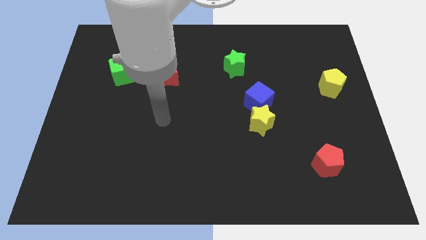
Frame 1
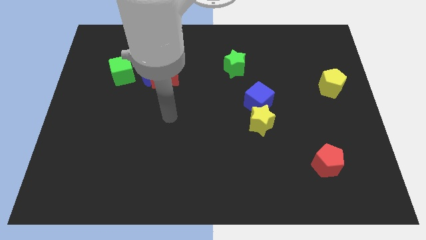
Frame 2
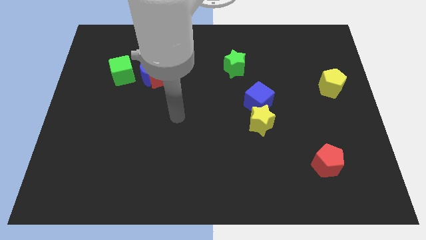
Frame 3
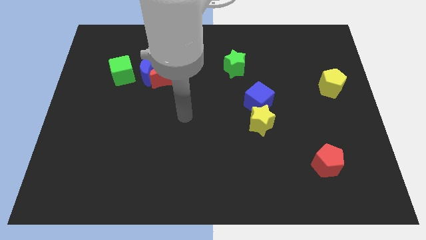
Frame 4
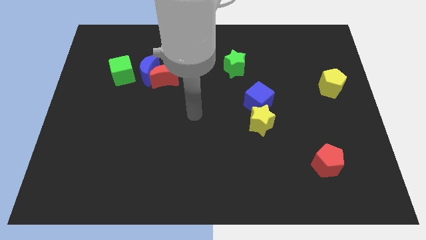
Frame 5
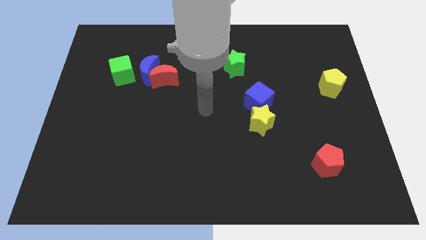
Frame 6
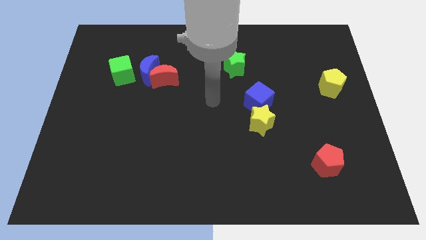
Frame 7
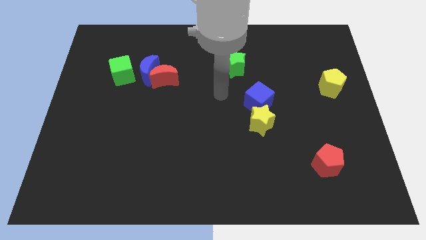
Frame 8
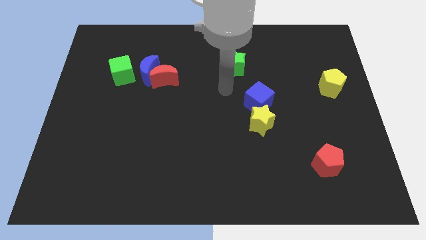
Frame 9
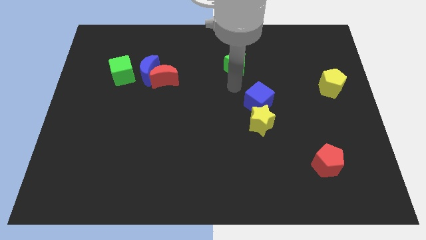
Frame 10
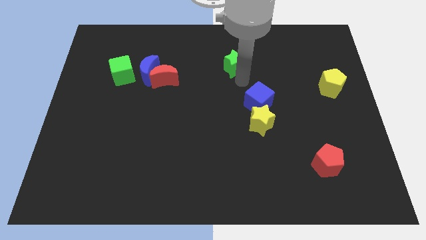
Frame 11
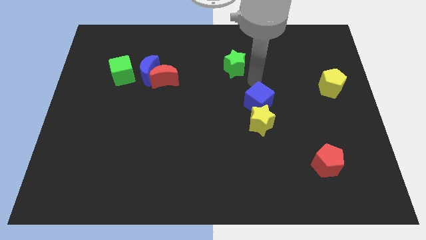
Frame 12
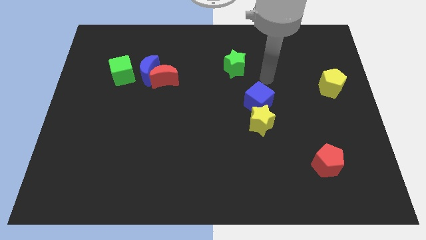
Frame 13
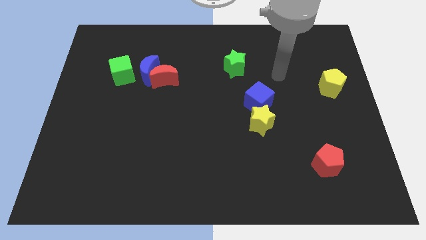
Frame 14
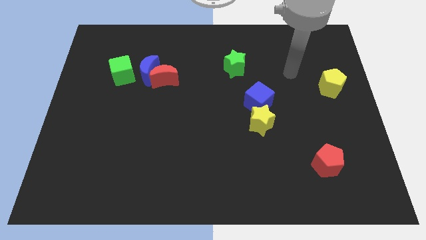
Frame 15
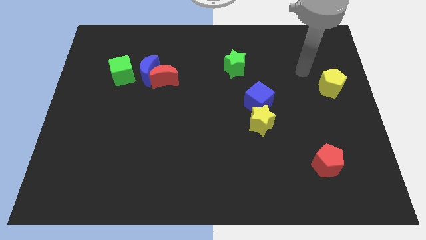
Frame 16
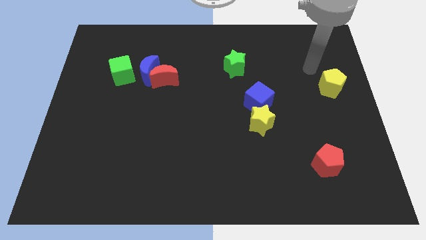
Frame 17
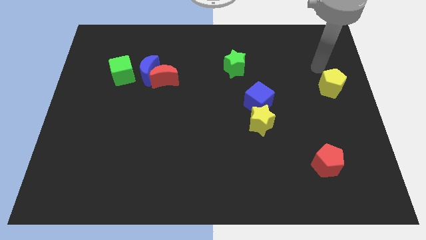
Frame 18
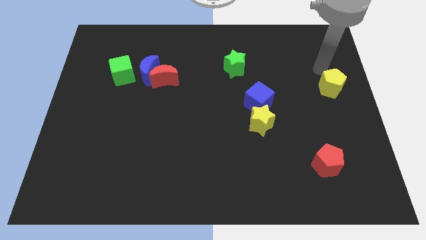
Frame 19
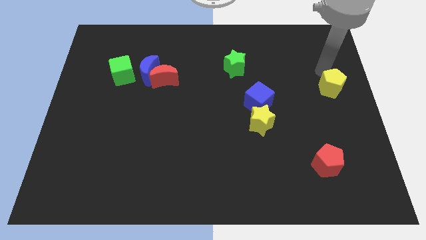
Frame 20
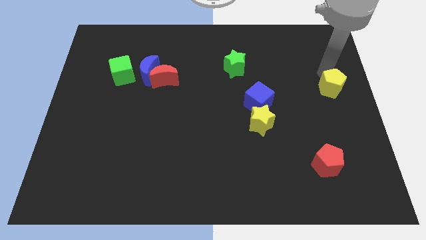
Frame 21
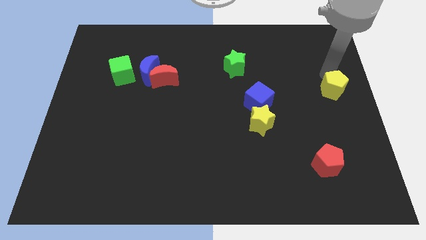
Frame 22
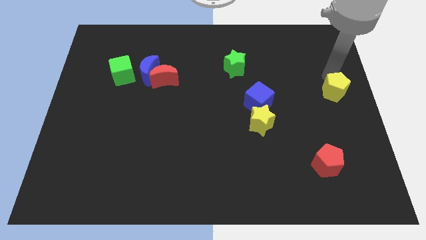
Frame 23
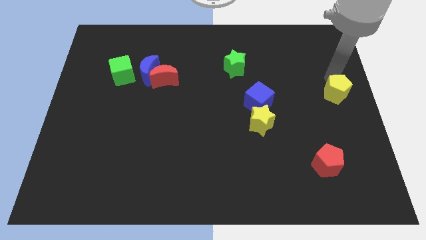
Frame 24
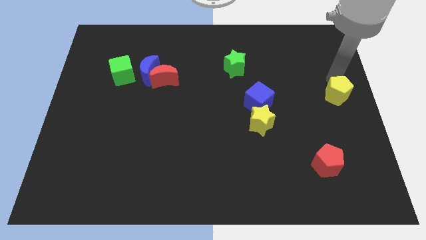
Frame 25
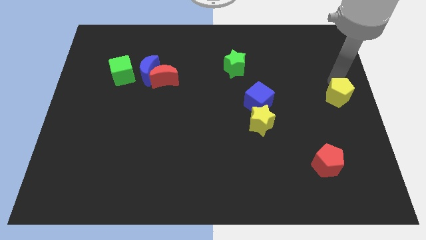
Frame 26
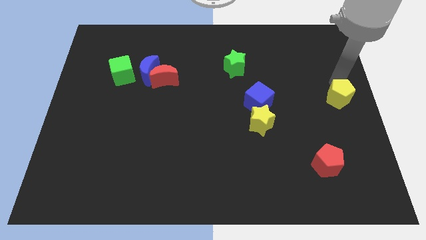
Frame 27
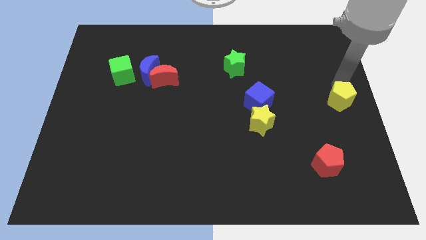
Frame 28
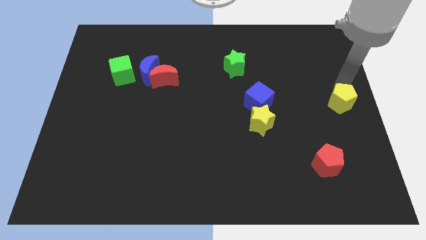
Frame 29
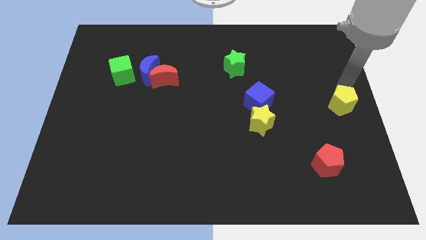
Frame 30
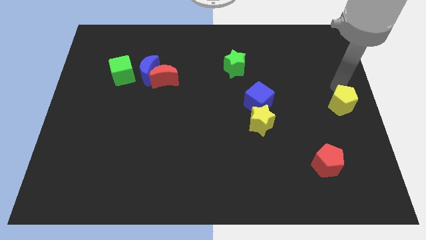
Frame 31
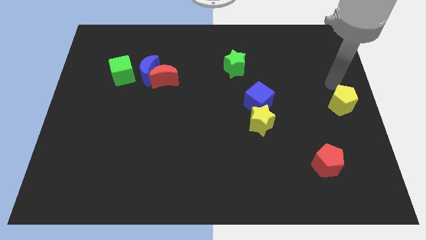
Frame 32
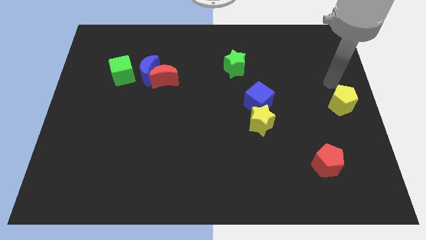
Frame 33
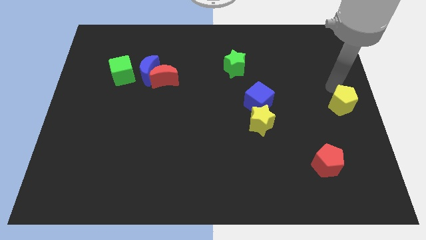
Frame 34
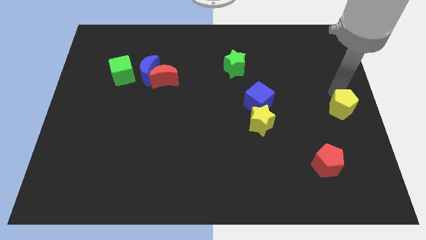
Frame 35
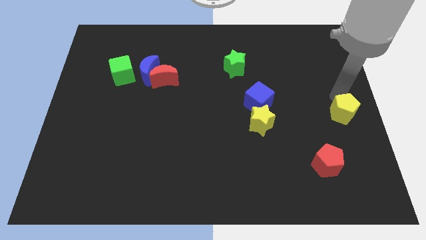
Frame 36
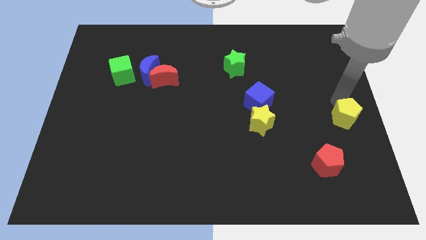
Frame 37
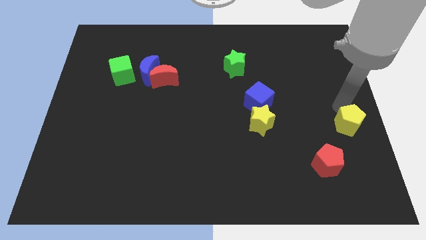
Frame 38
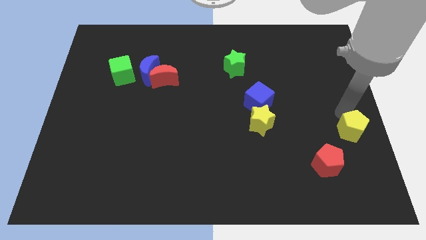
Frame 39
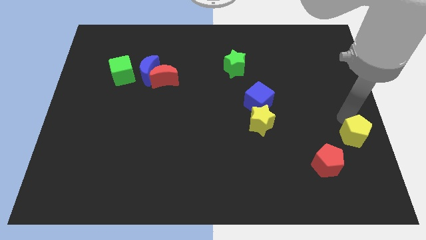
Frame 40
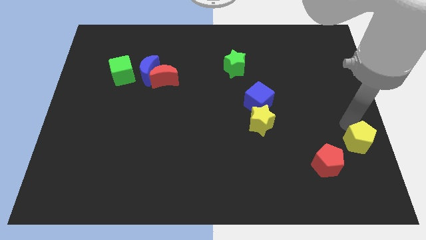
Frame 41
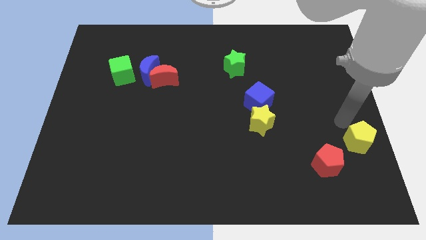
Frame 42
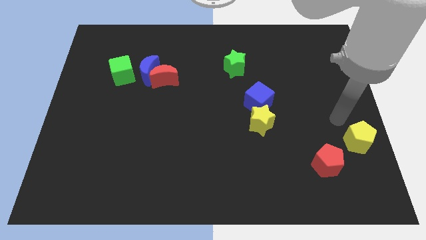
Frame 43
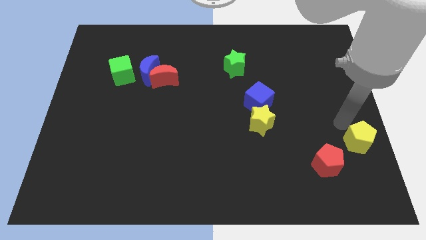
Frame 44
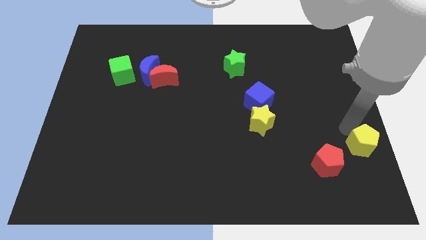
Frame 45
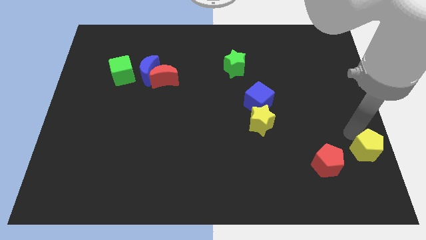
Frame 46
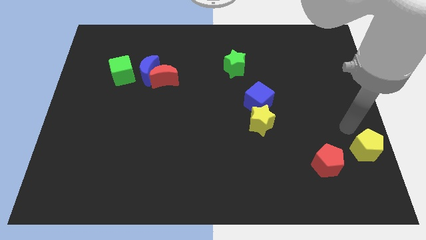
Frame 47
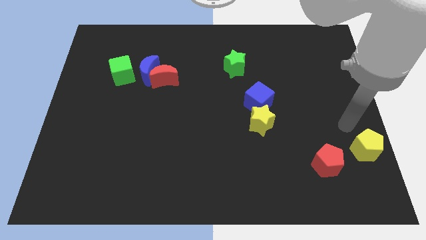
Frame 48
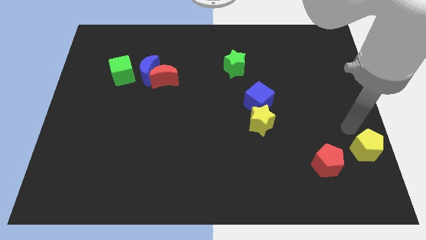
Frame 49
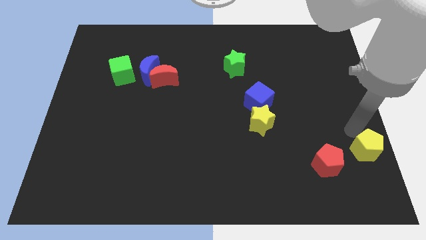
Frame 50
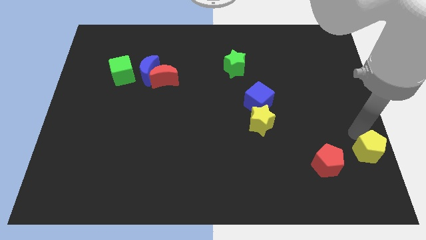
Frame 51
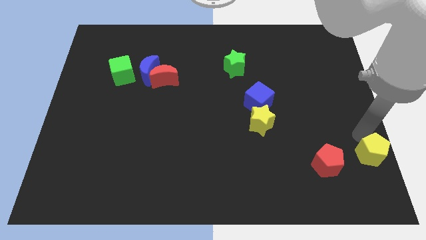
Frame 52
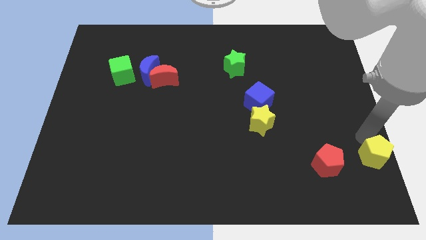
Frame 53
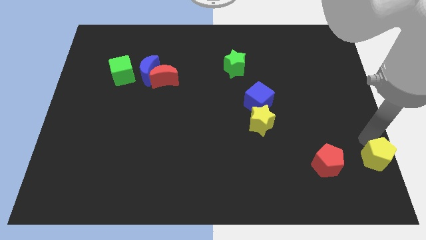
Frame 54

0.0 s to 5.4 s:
slide the yellow pentagon to the bottom right
